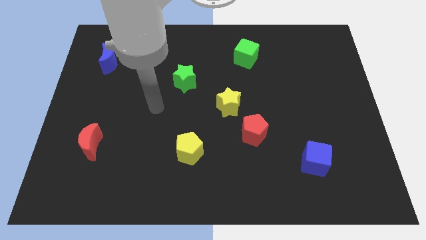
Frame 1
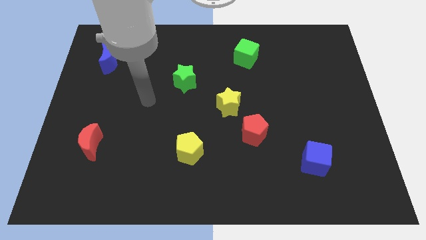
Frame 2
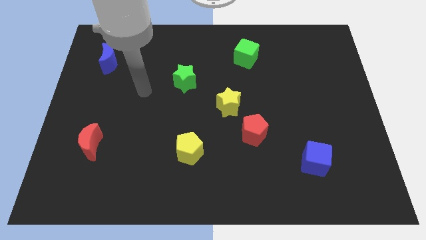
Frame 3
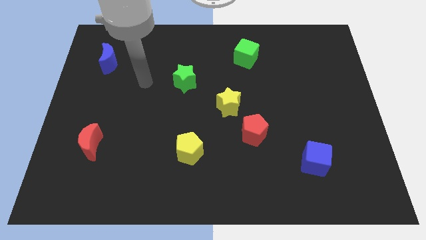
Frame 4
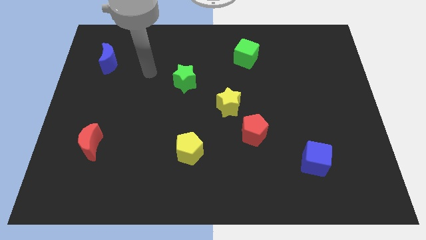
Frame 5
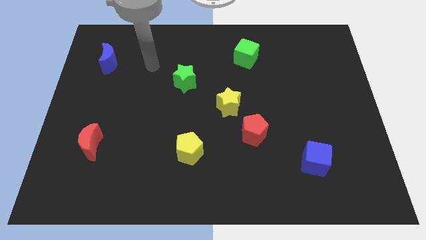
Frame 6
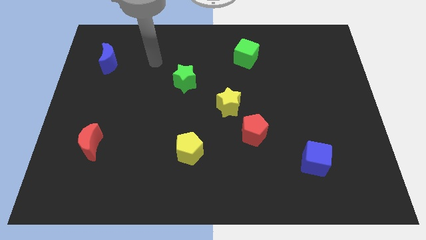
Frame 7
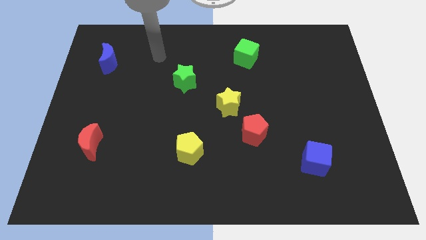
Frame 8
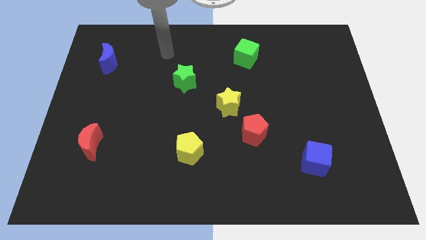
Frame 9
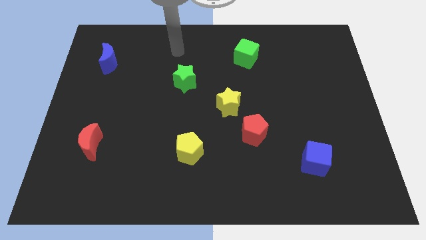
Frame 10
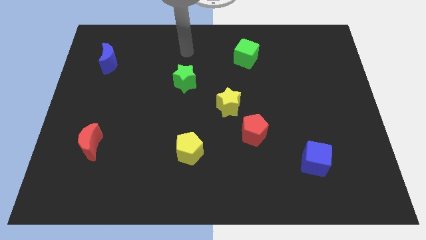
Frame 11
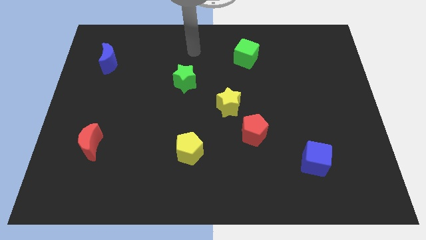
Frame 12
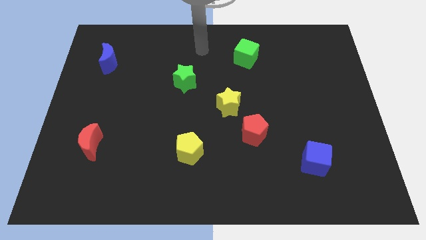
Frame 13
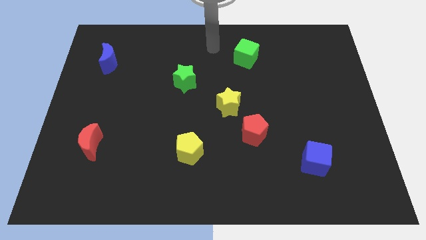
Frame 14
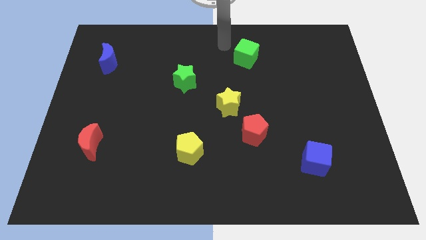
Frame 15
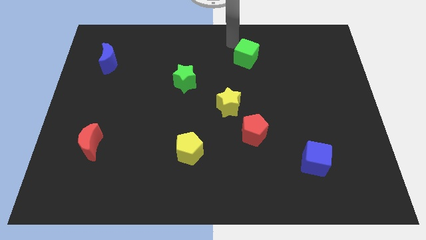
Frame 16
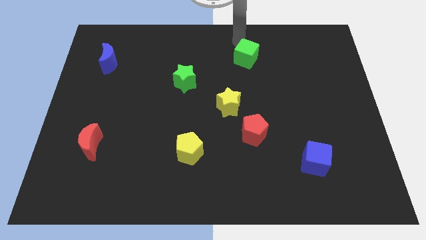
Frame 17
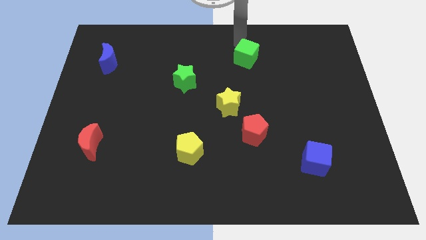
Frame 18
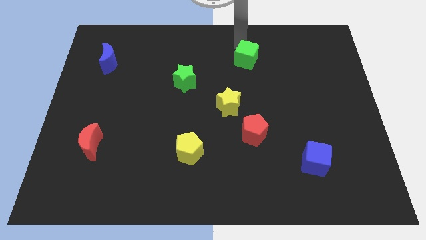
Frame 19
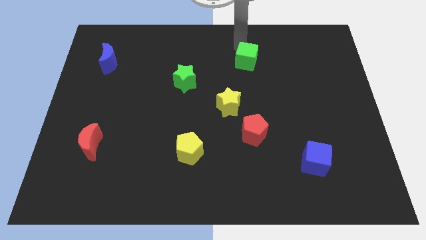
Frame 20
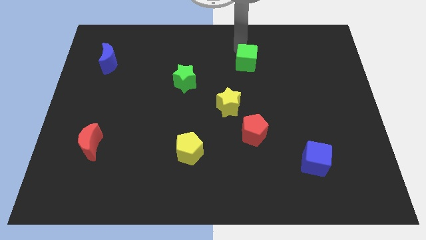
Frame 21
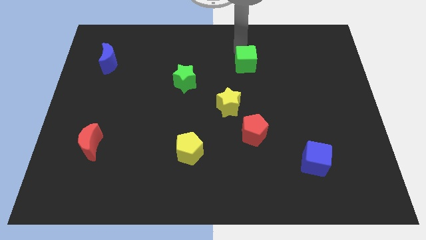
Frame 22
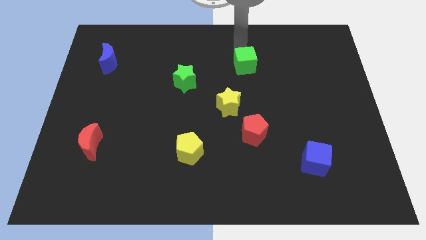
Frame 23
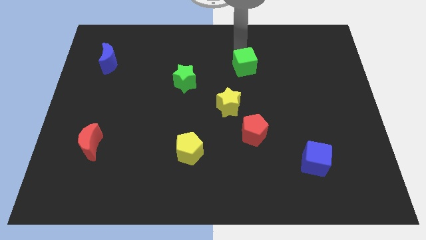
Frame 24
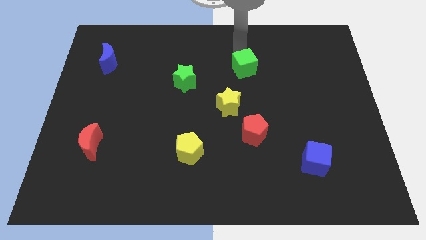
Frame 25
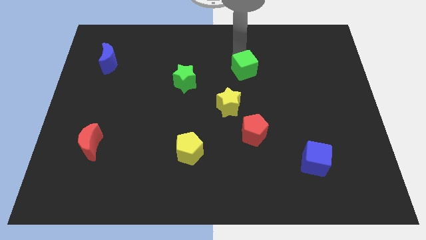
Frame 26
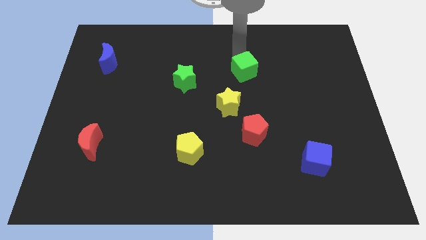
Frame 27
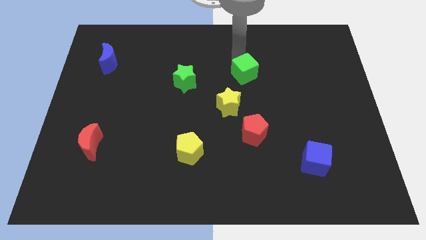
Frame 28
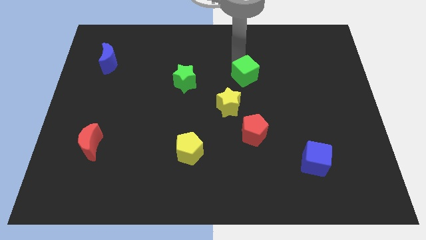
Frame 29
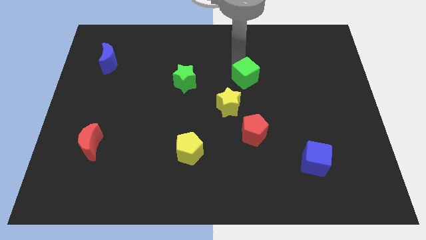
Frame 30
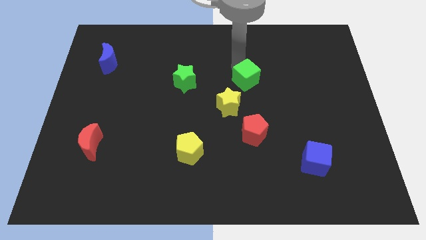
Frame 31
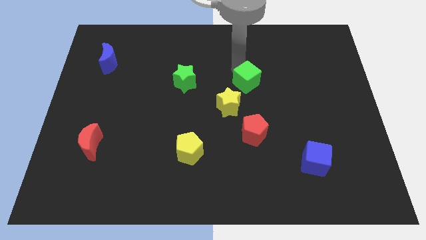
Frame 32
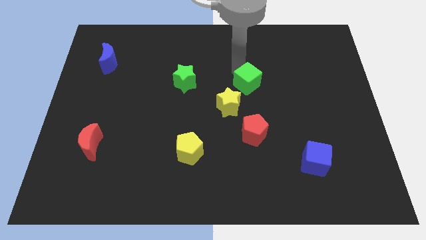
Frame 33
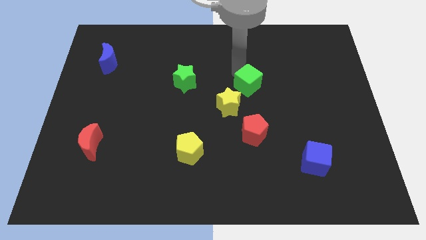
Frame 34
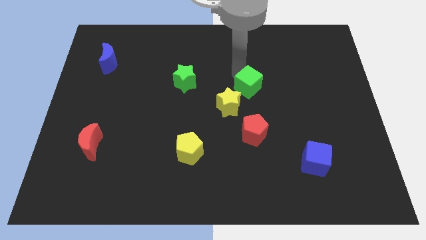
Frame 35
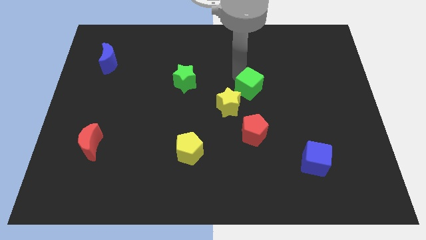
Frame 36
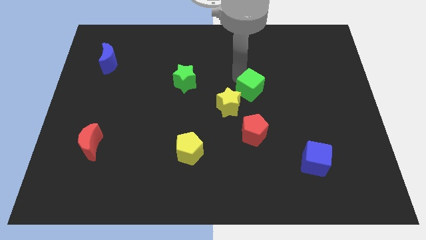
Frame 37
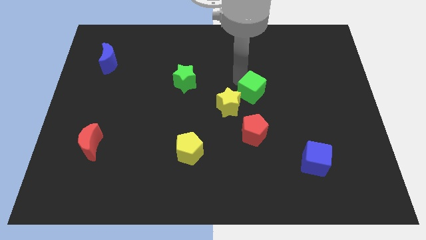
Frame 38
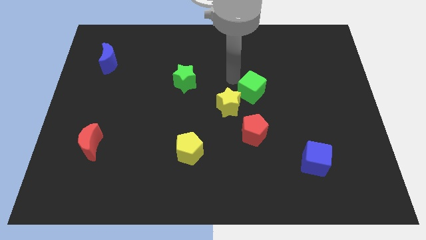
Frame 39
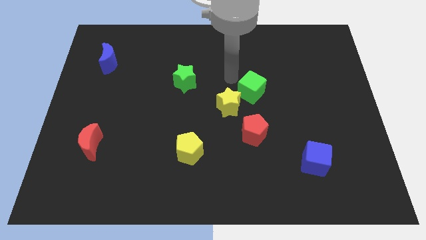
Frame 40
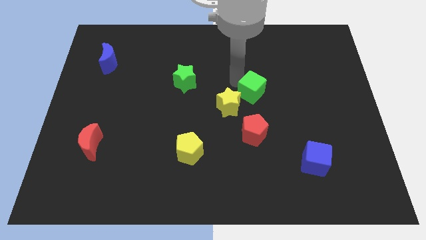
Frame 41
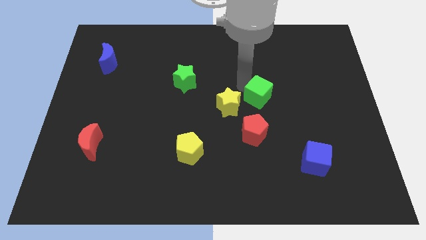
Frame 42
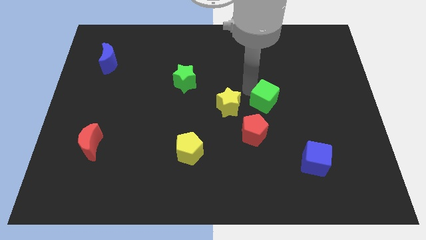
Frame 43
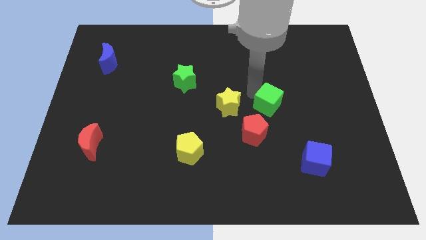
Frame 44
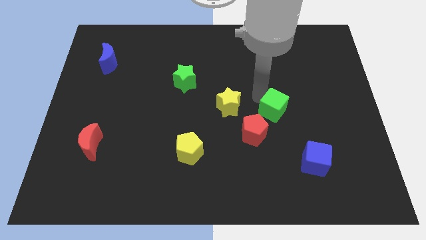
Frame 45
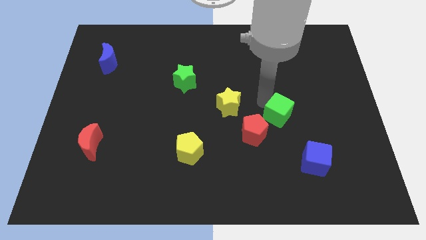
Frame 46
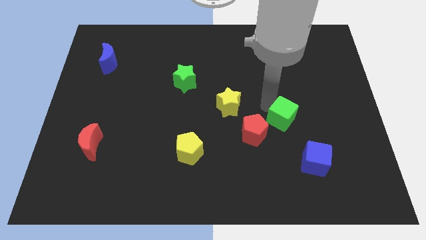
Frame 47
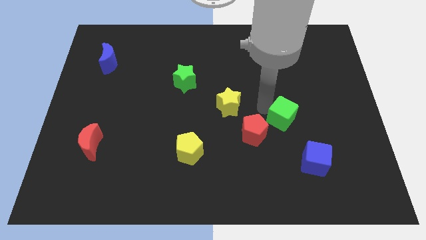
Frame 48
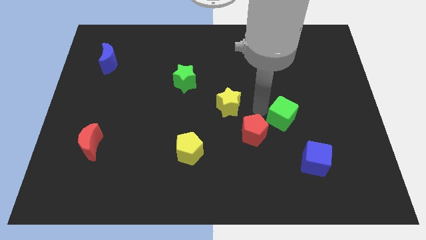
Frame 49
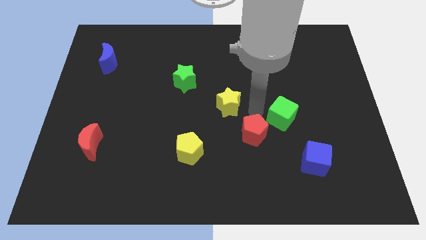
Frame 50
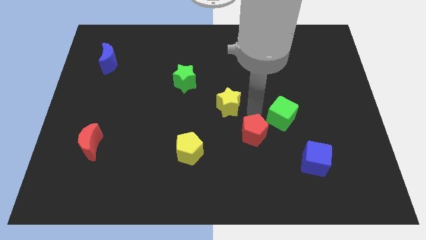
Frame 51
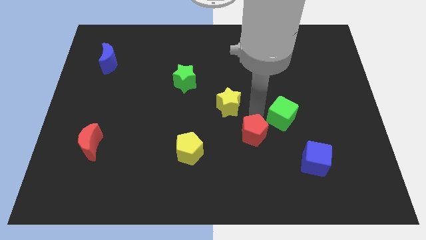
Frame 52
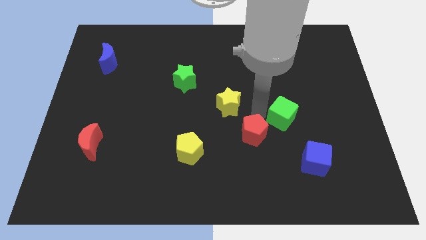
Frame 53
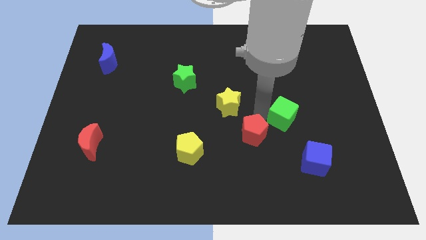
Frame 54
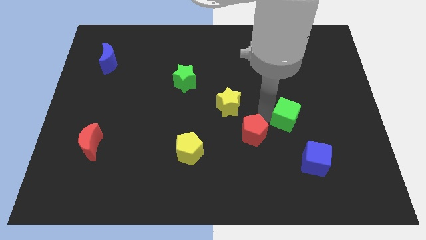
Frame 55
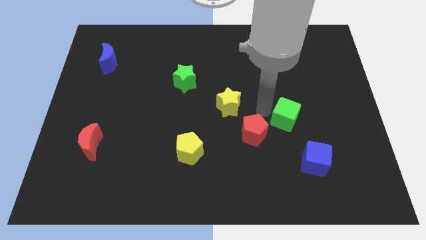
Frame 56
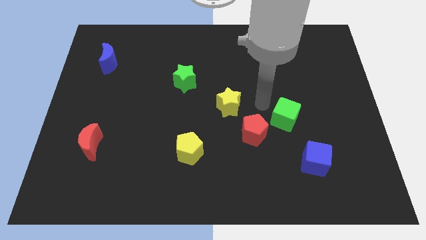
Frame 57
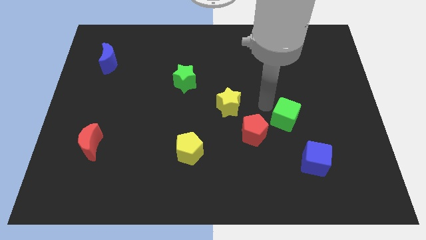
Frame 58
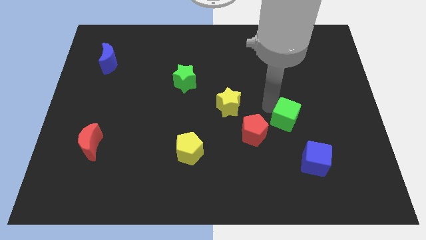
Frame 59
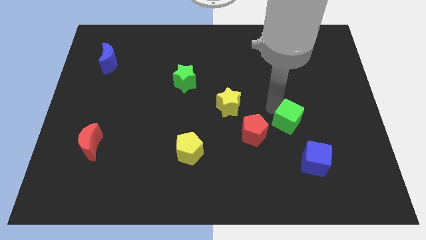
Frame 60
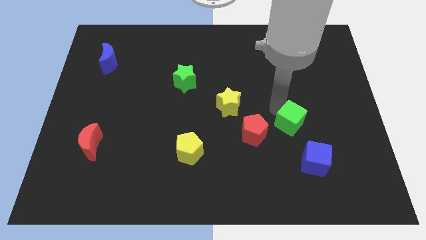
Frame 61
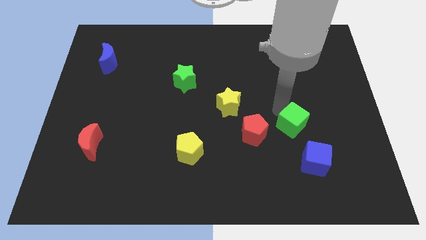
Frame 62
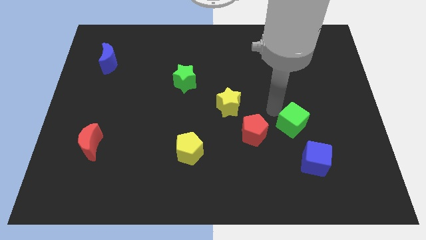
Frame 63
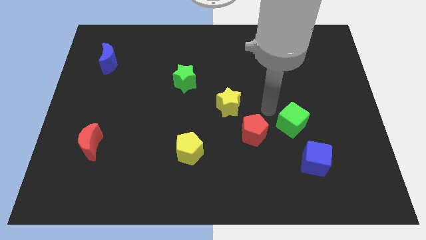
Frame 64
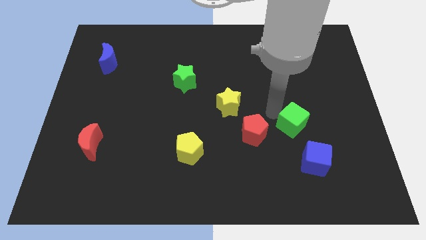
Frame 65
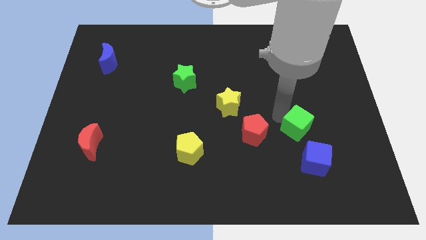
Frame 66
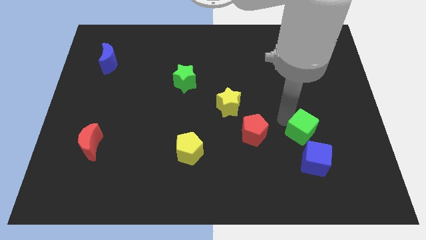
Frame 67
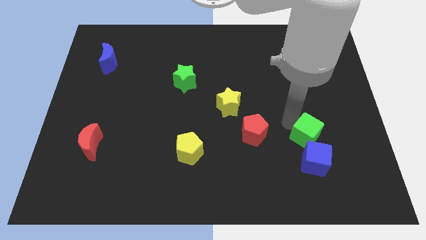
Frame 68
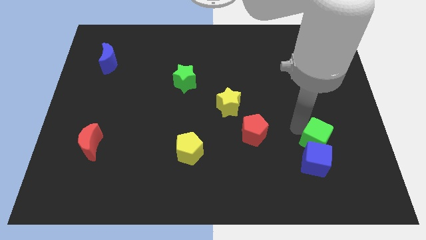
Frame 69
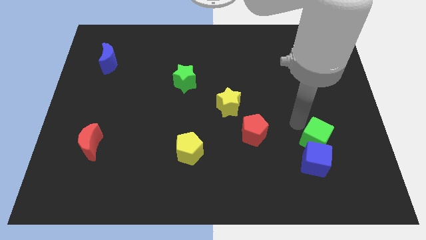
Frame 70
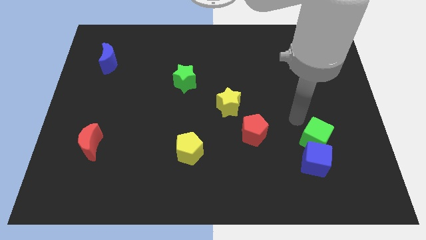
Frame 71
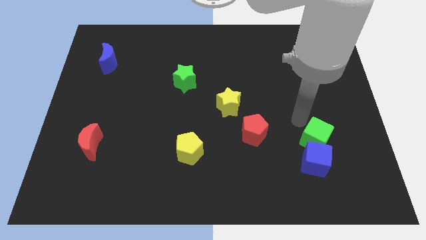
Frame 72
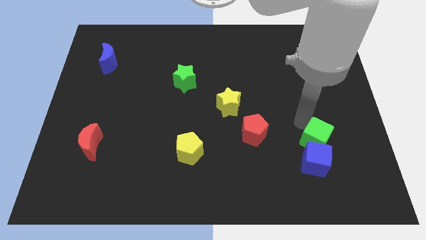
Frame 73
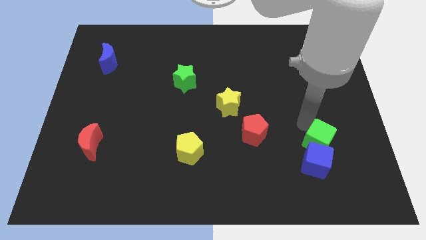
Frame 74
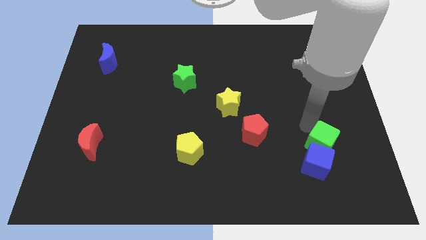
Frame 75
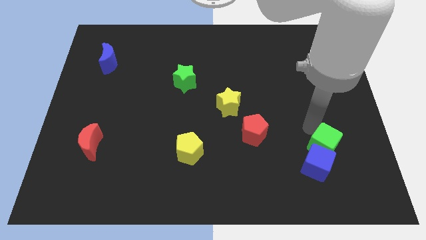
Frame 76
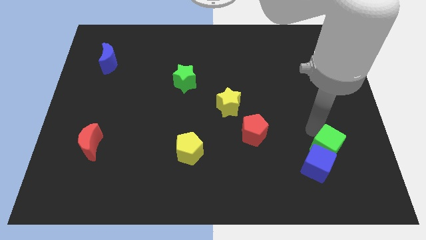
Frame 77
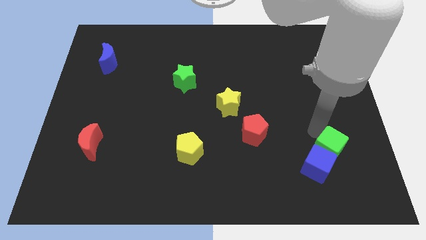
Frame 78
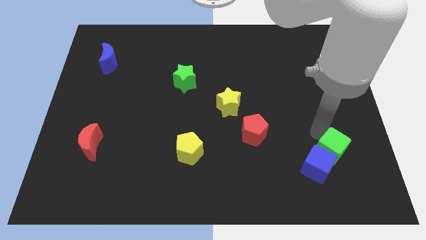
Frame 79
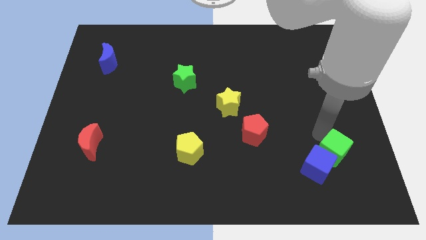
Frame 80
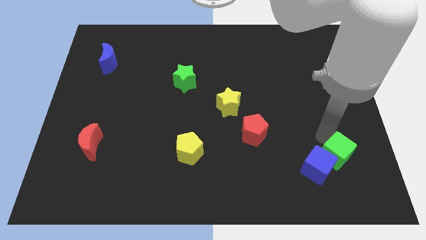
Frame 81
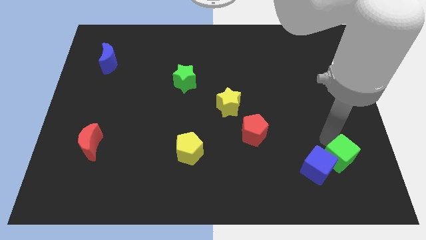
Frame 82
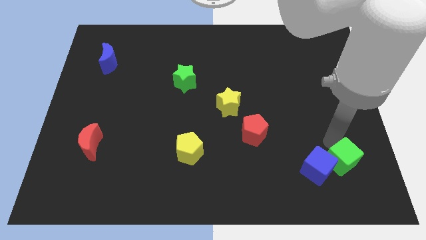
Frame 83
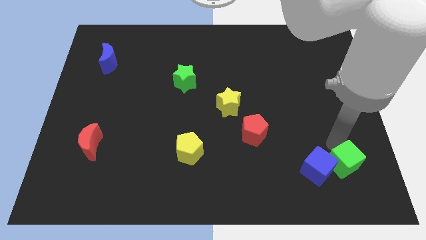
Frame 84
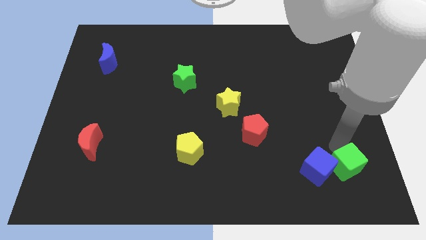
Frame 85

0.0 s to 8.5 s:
push the green cube to the bottom right side of the blue cube
